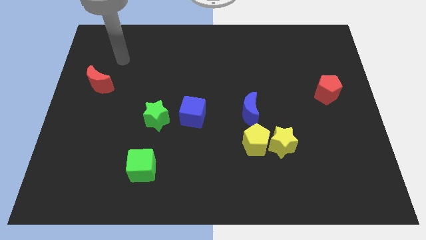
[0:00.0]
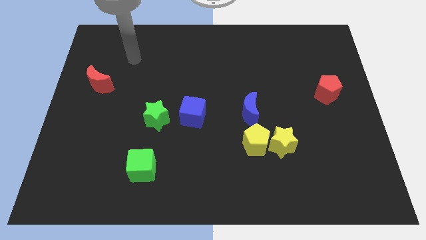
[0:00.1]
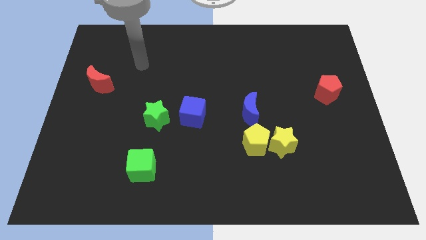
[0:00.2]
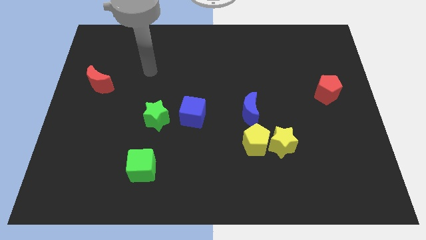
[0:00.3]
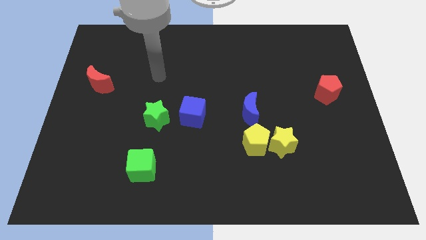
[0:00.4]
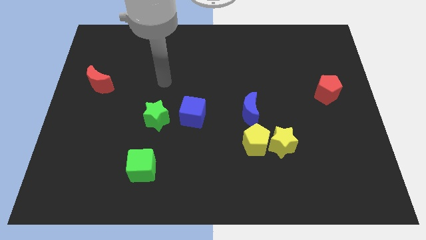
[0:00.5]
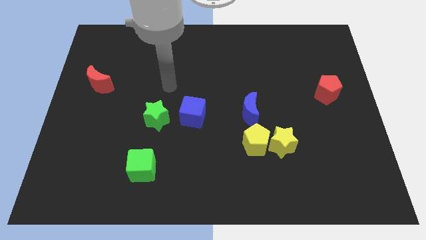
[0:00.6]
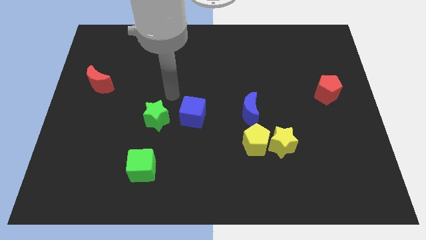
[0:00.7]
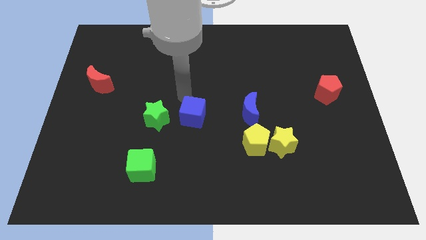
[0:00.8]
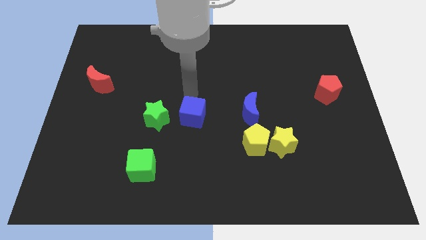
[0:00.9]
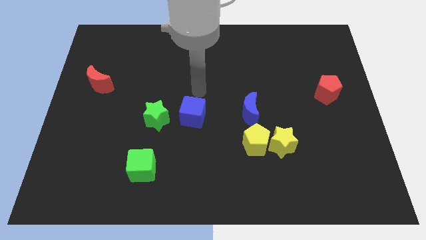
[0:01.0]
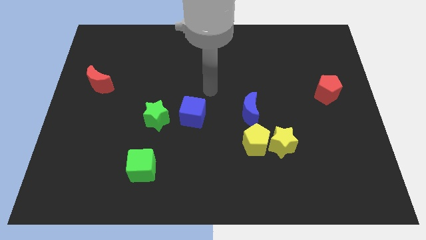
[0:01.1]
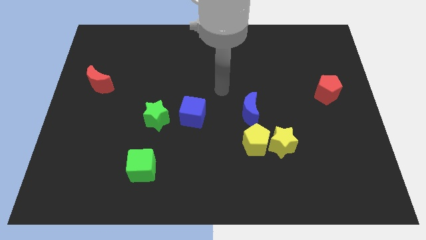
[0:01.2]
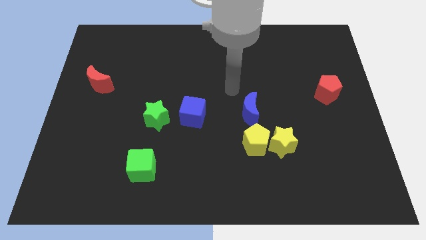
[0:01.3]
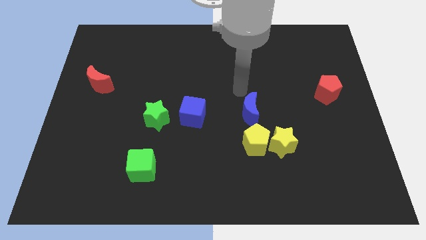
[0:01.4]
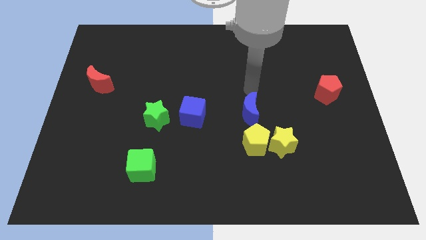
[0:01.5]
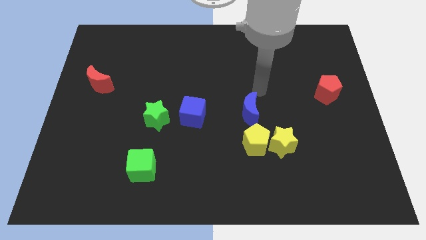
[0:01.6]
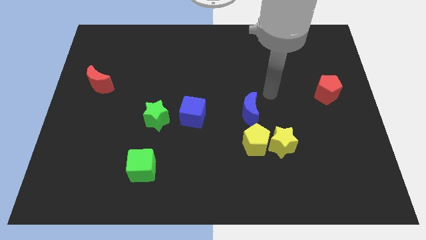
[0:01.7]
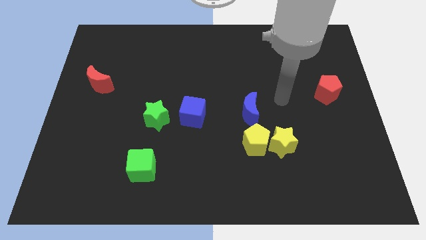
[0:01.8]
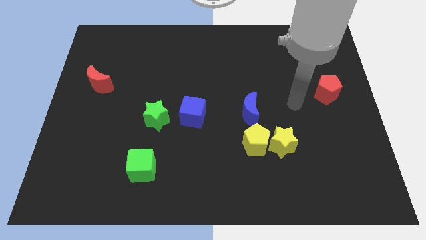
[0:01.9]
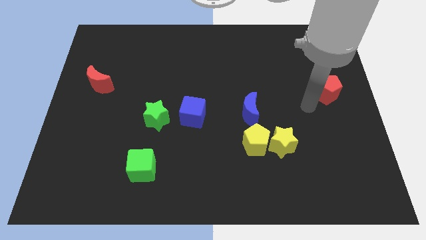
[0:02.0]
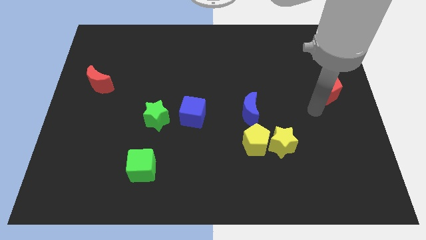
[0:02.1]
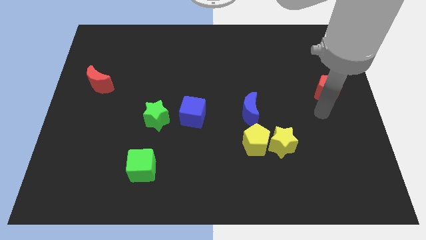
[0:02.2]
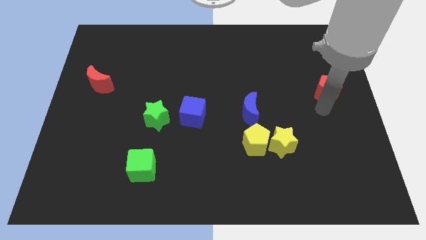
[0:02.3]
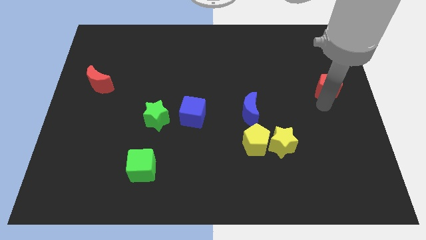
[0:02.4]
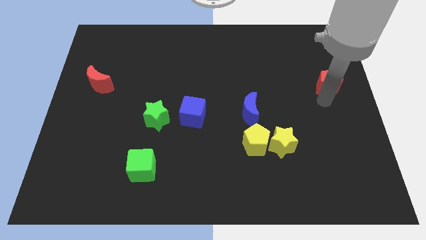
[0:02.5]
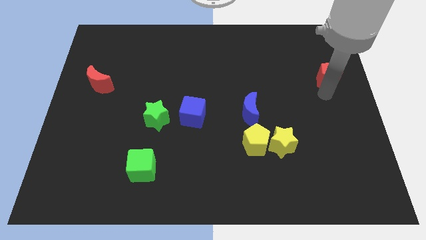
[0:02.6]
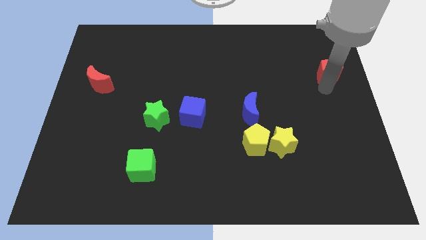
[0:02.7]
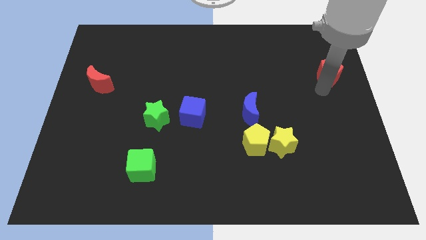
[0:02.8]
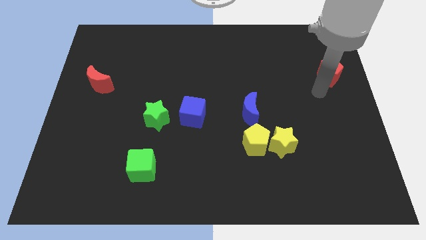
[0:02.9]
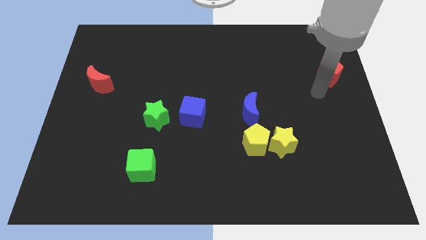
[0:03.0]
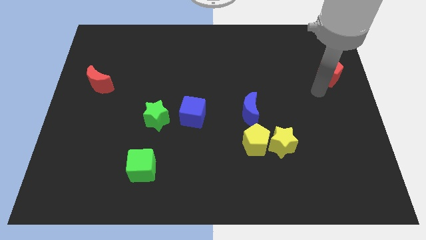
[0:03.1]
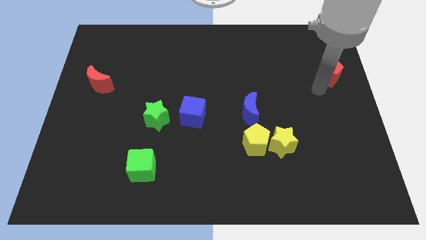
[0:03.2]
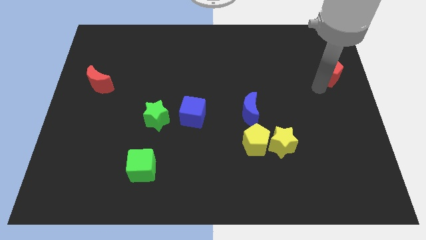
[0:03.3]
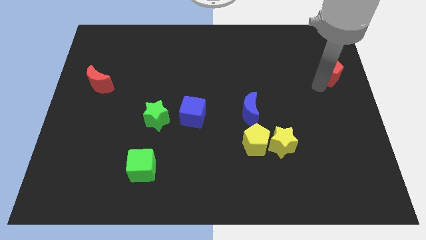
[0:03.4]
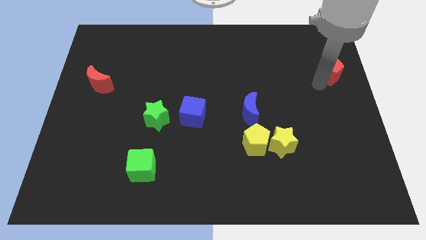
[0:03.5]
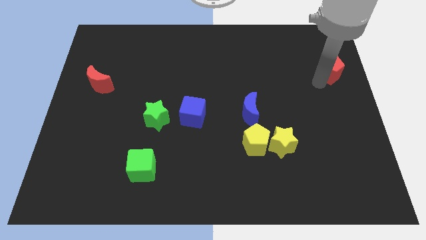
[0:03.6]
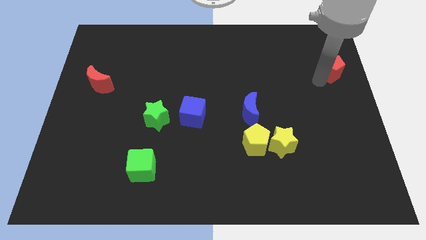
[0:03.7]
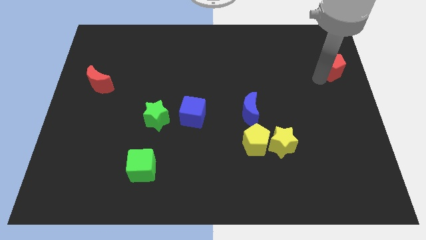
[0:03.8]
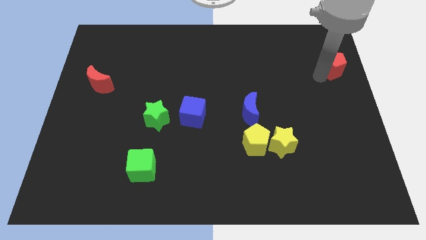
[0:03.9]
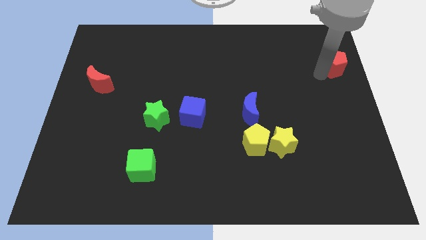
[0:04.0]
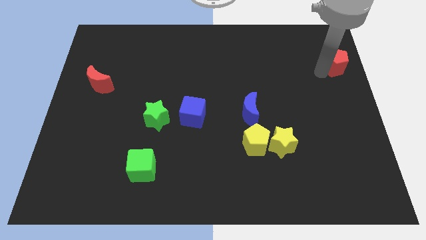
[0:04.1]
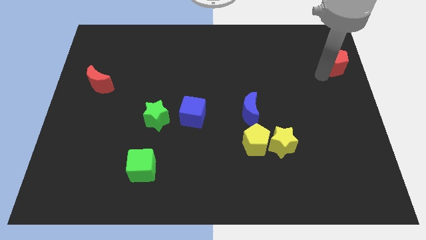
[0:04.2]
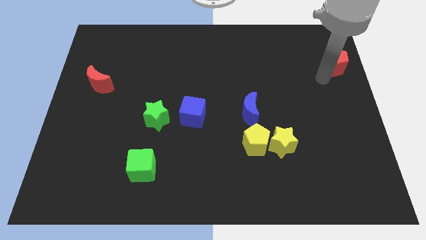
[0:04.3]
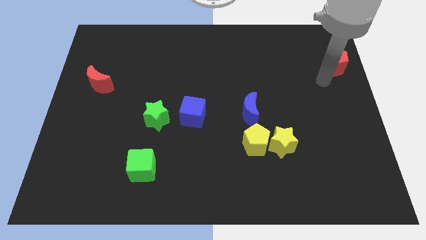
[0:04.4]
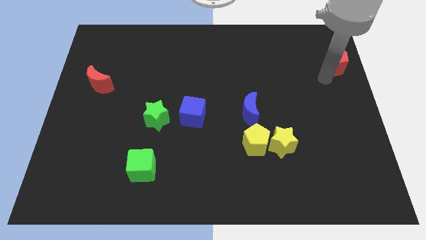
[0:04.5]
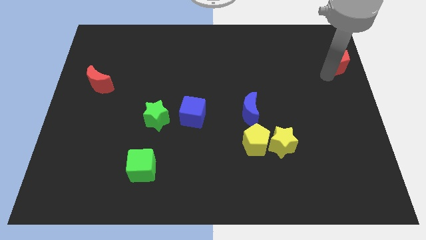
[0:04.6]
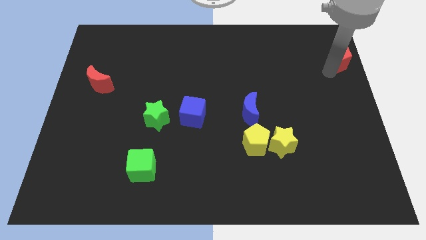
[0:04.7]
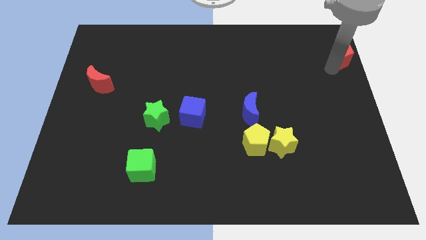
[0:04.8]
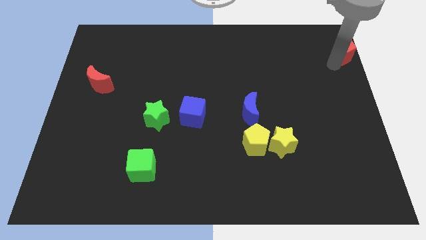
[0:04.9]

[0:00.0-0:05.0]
move the red pentagon to the top right corner

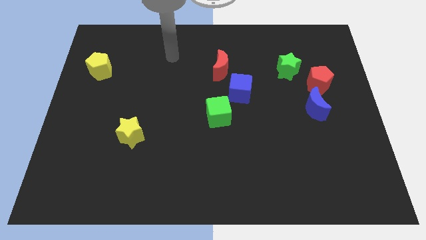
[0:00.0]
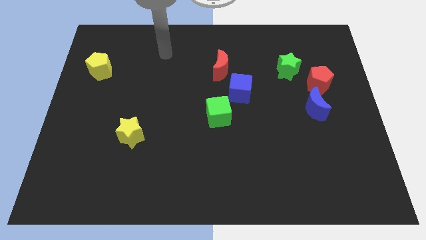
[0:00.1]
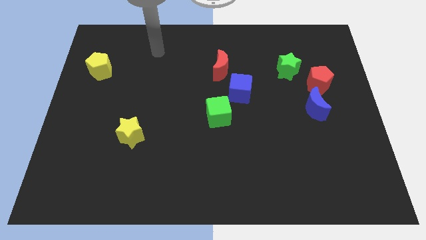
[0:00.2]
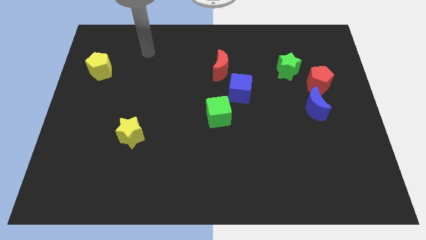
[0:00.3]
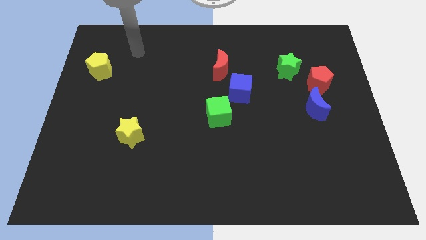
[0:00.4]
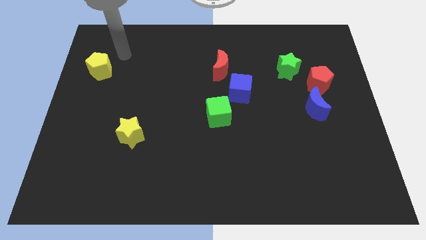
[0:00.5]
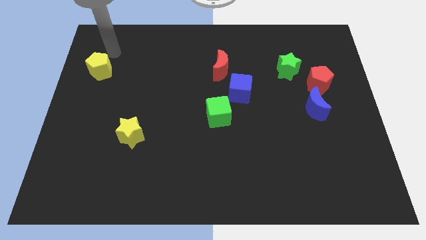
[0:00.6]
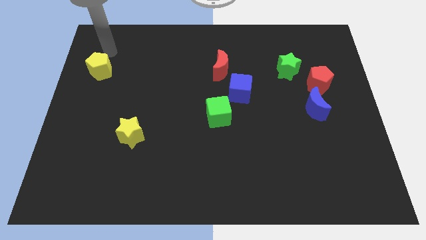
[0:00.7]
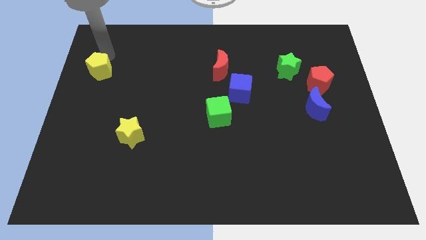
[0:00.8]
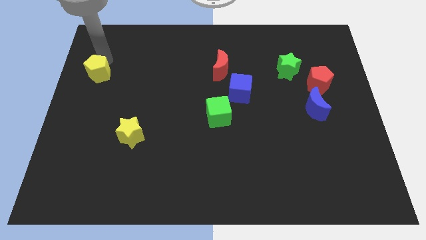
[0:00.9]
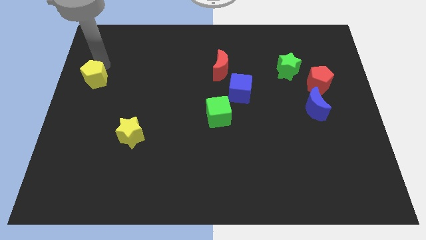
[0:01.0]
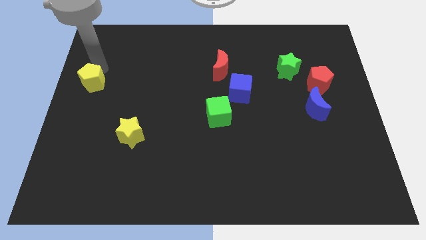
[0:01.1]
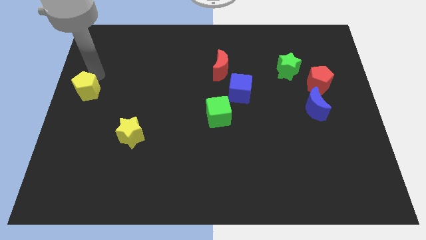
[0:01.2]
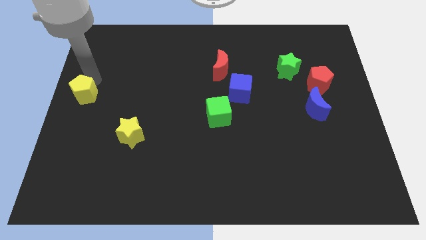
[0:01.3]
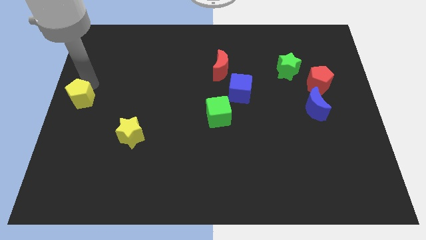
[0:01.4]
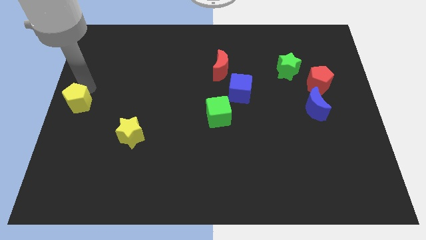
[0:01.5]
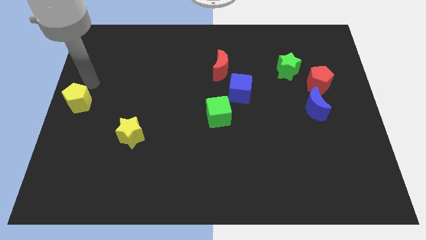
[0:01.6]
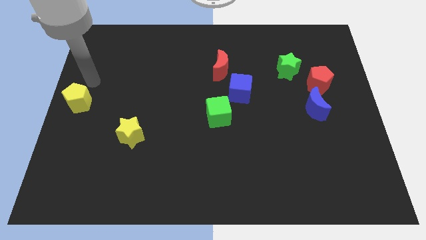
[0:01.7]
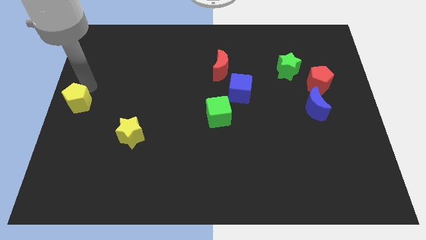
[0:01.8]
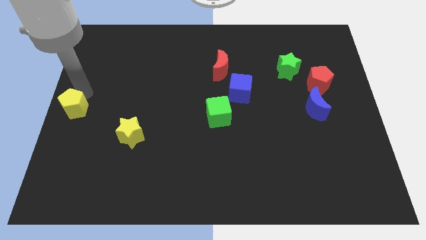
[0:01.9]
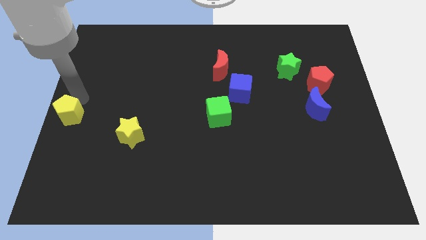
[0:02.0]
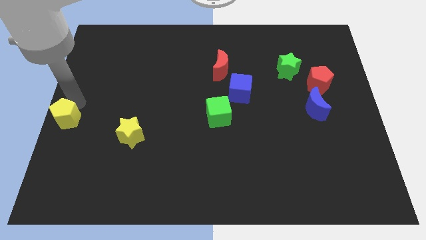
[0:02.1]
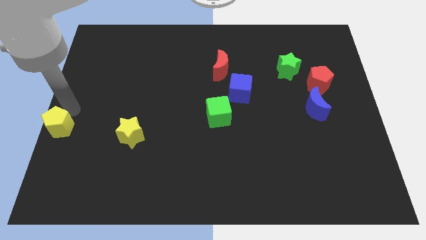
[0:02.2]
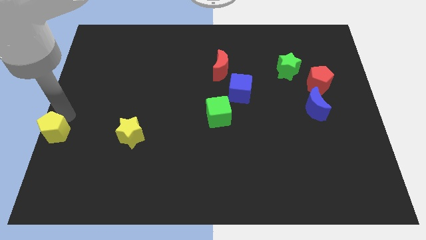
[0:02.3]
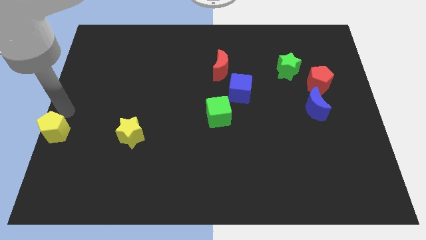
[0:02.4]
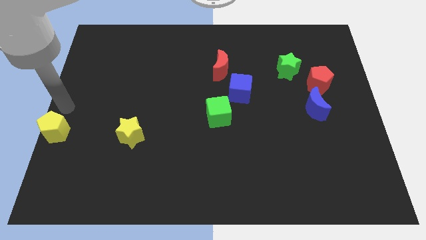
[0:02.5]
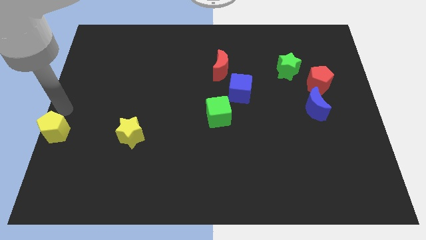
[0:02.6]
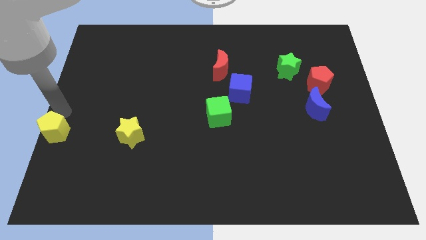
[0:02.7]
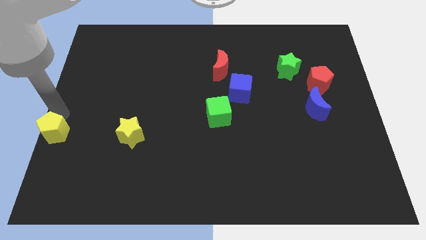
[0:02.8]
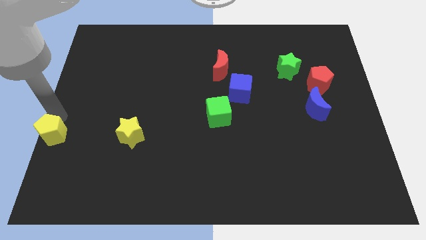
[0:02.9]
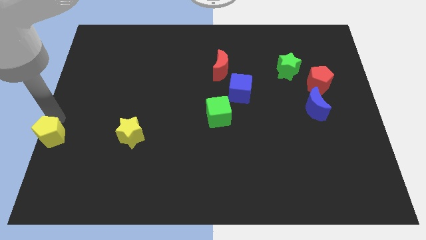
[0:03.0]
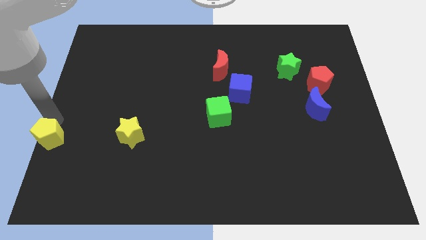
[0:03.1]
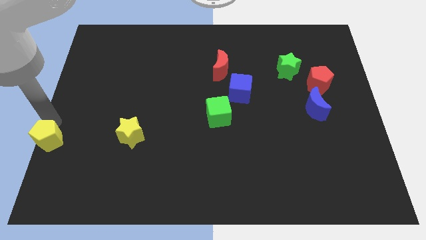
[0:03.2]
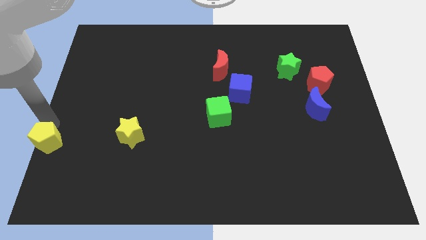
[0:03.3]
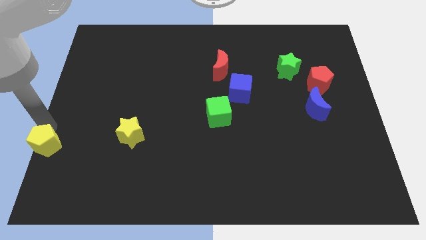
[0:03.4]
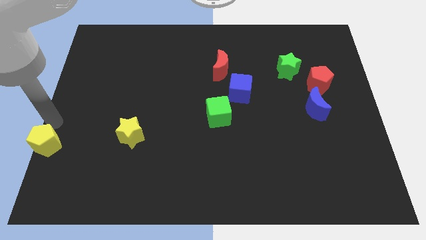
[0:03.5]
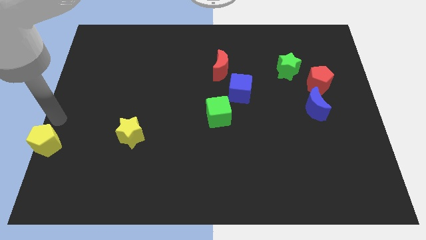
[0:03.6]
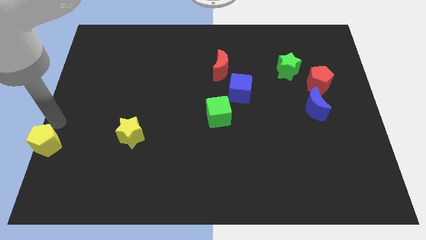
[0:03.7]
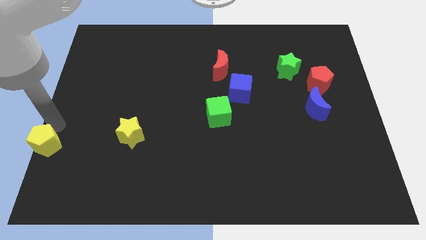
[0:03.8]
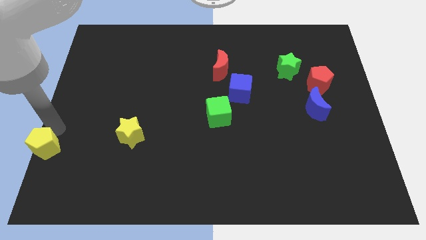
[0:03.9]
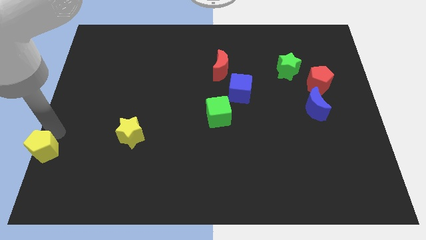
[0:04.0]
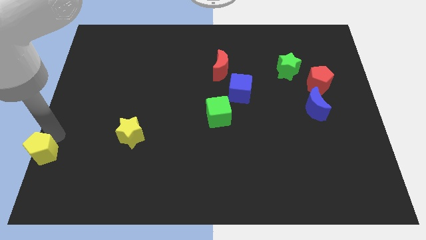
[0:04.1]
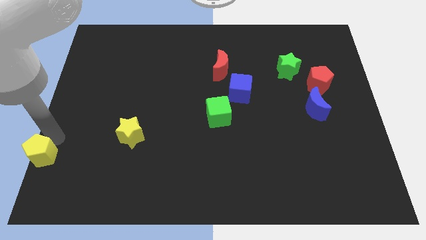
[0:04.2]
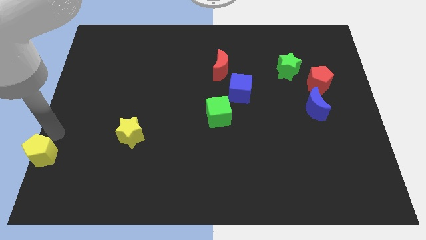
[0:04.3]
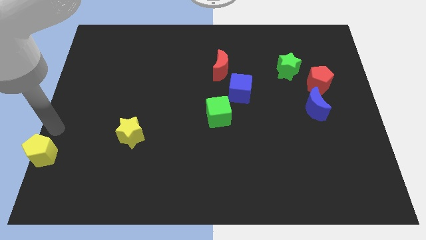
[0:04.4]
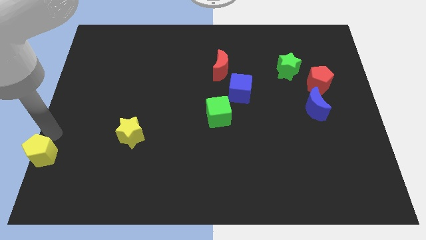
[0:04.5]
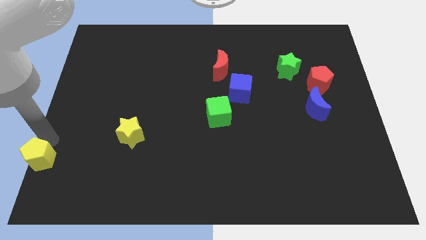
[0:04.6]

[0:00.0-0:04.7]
push the yellow pentagon to the bottom left of the board
